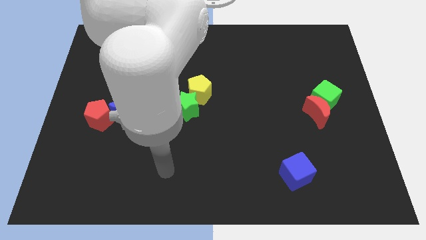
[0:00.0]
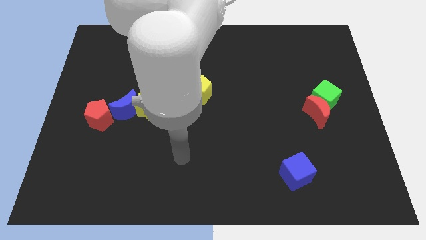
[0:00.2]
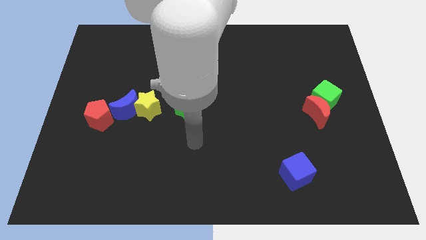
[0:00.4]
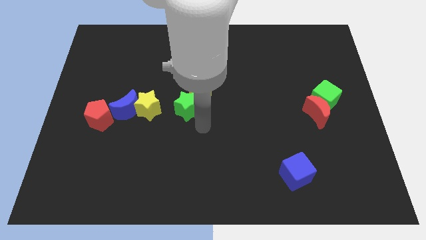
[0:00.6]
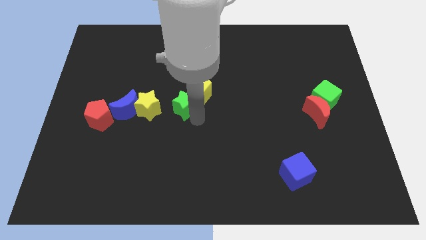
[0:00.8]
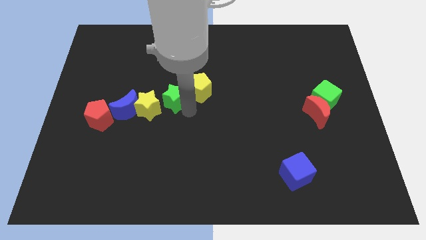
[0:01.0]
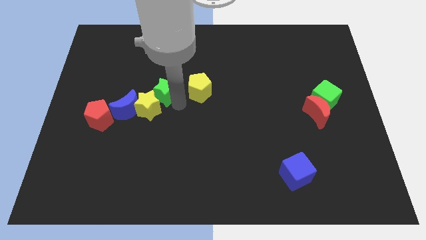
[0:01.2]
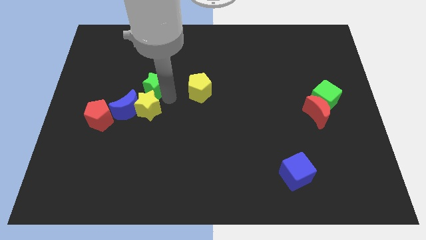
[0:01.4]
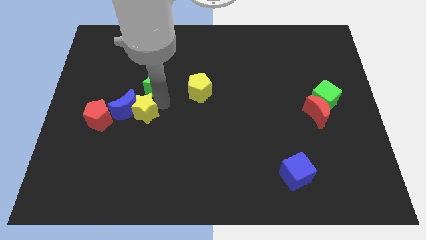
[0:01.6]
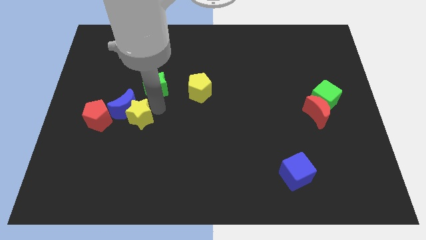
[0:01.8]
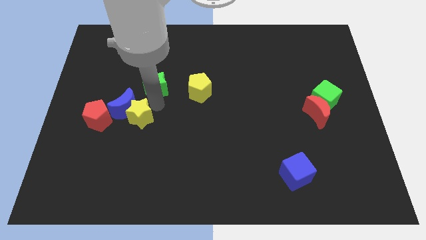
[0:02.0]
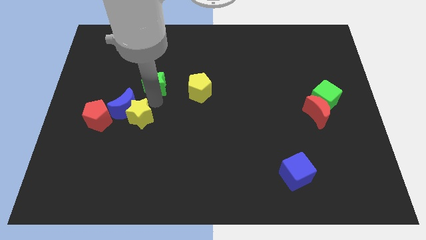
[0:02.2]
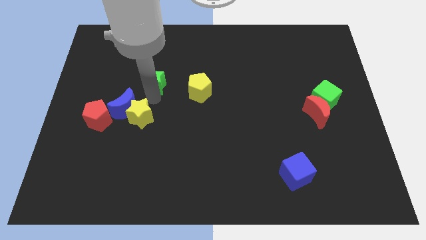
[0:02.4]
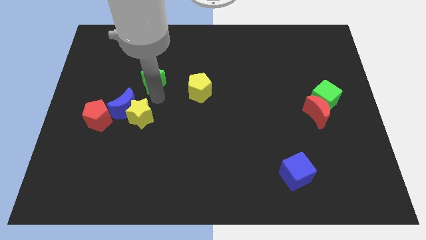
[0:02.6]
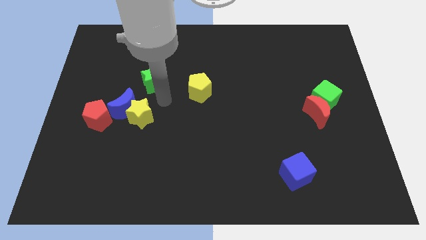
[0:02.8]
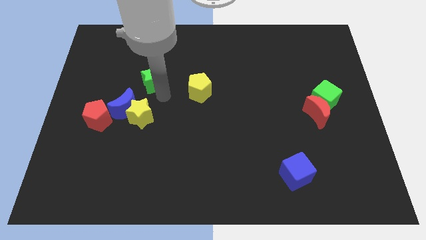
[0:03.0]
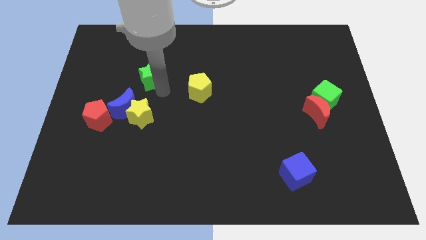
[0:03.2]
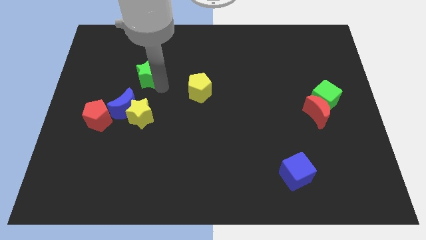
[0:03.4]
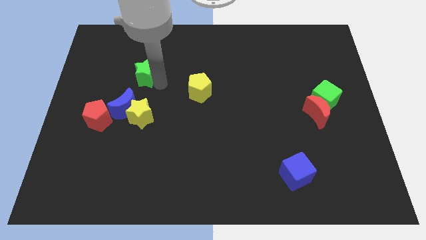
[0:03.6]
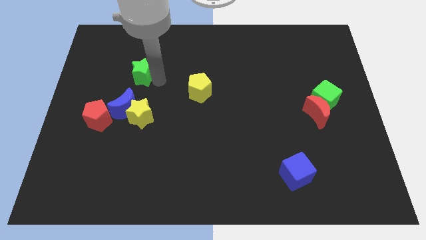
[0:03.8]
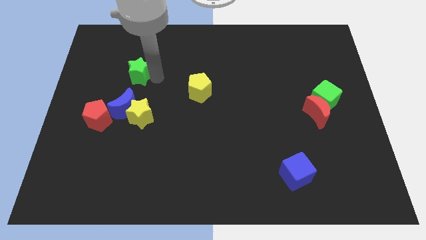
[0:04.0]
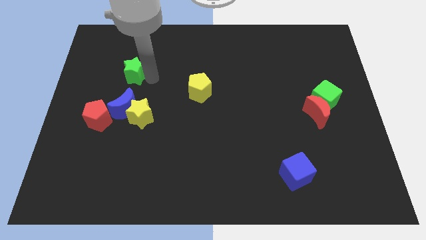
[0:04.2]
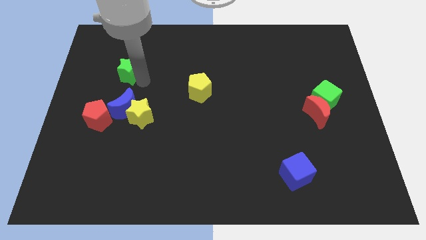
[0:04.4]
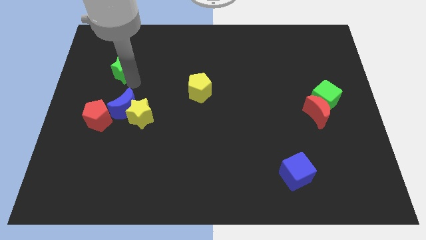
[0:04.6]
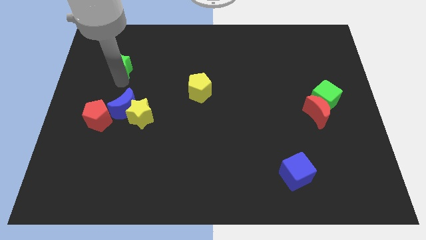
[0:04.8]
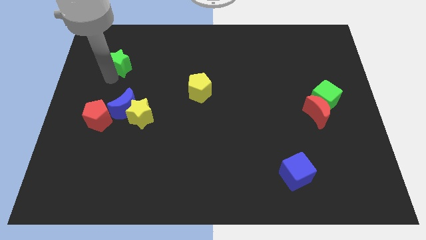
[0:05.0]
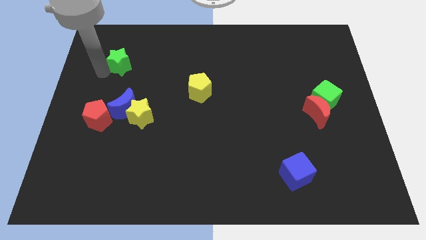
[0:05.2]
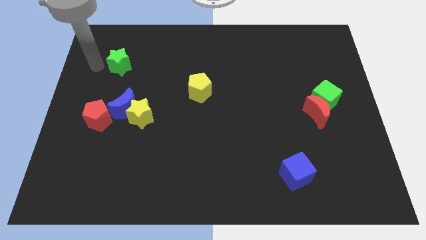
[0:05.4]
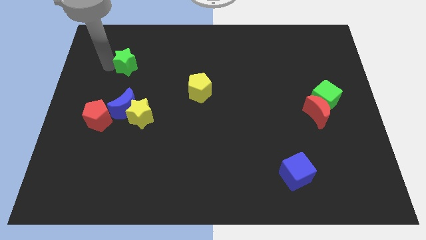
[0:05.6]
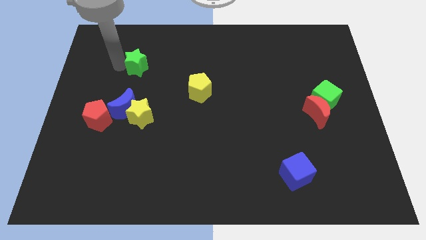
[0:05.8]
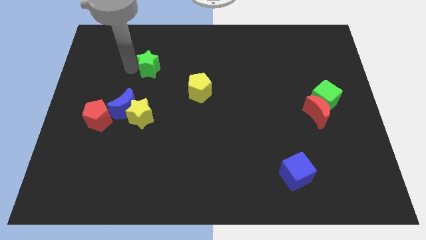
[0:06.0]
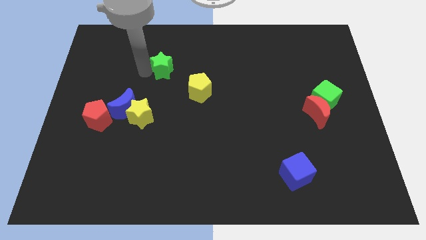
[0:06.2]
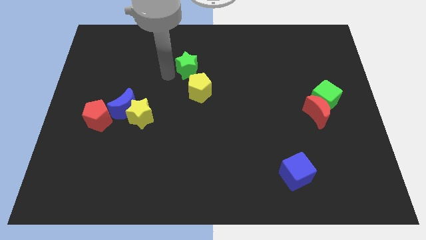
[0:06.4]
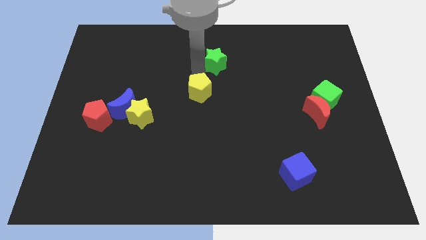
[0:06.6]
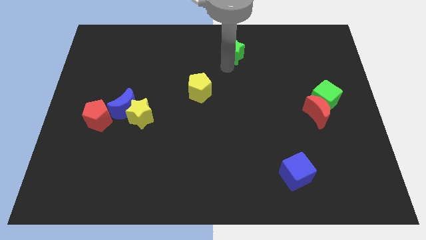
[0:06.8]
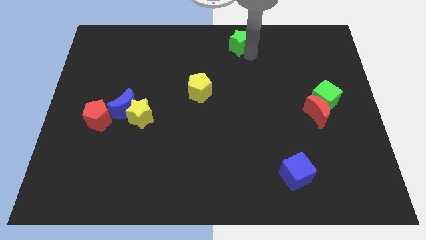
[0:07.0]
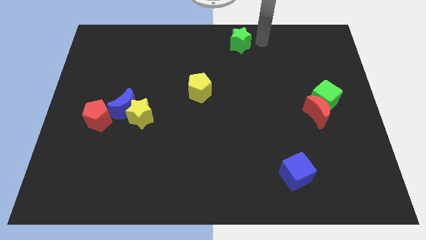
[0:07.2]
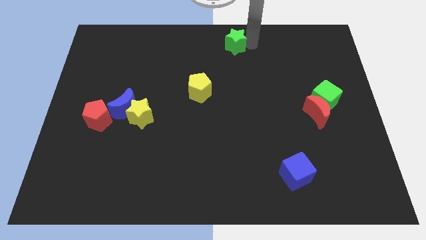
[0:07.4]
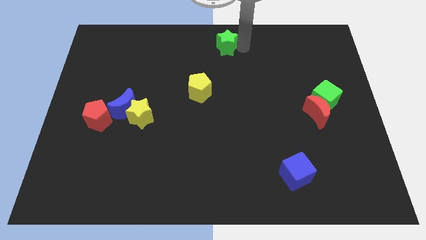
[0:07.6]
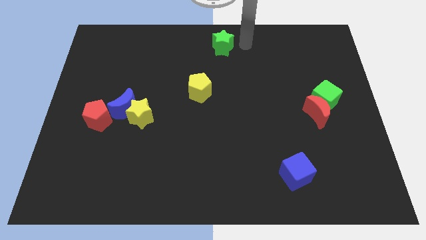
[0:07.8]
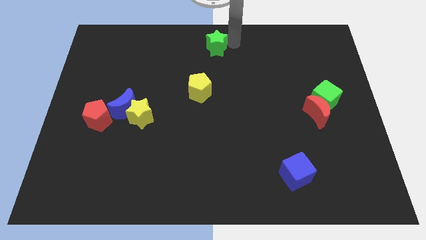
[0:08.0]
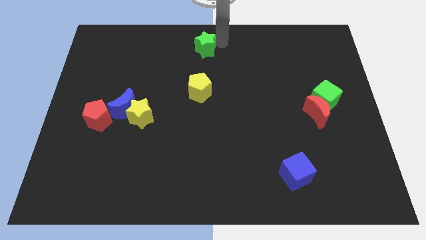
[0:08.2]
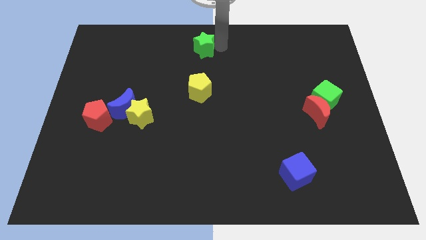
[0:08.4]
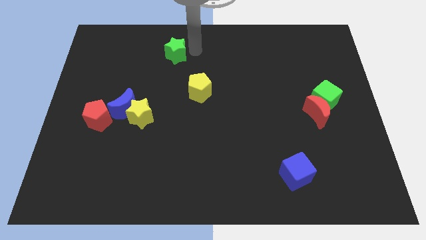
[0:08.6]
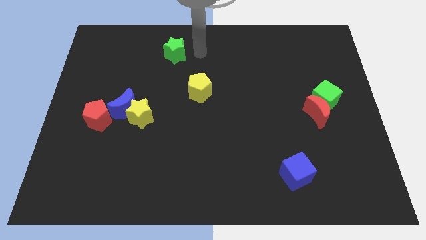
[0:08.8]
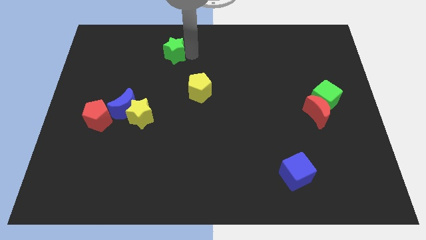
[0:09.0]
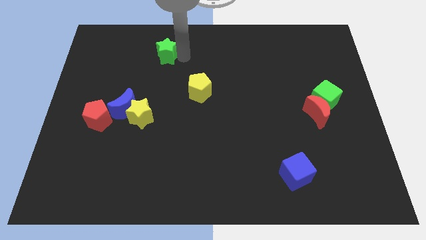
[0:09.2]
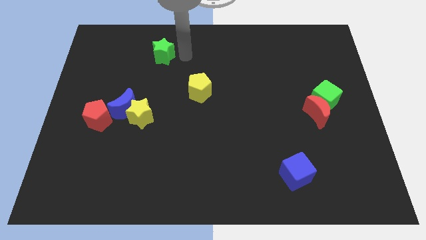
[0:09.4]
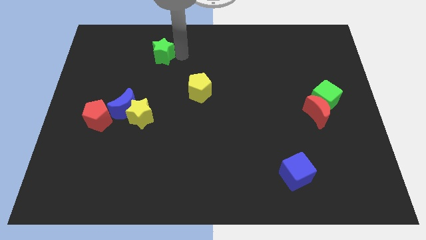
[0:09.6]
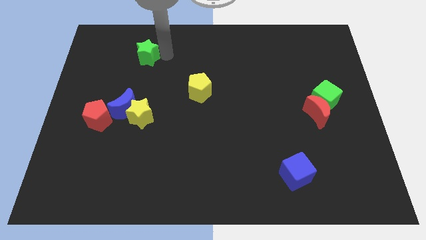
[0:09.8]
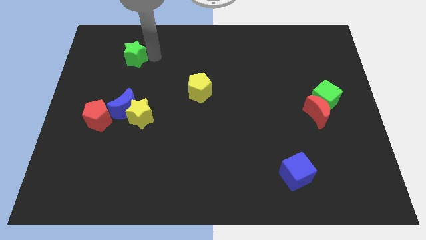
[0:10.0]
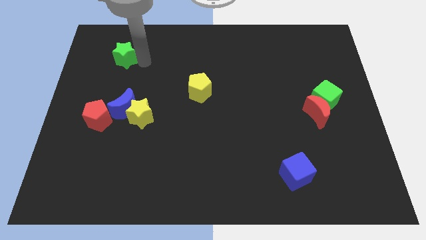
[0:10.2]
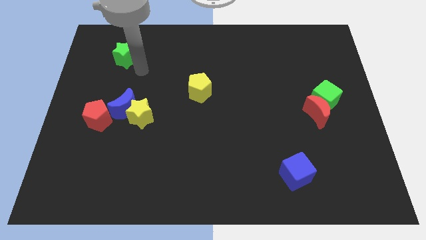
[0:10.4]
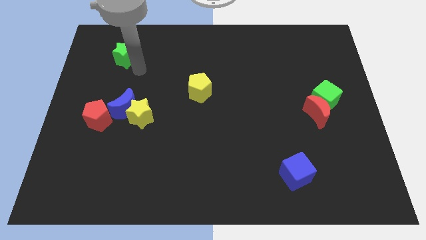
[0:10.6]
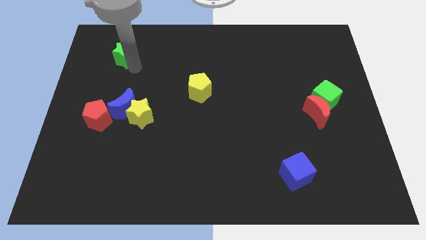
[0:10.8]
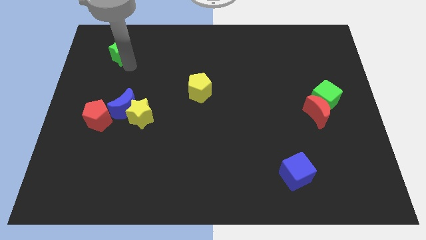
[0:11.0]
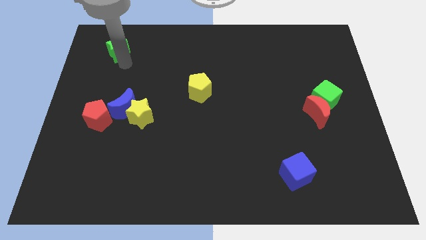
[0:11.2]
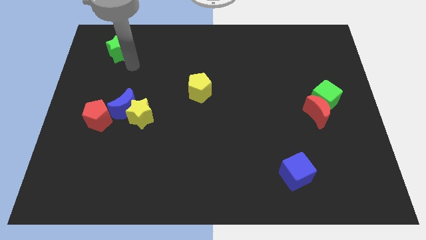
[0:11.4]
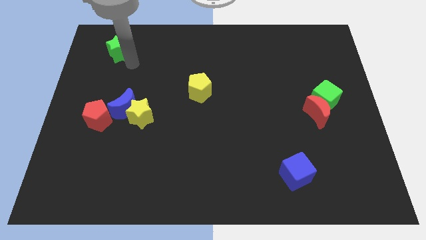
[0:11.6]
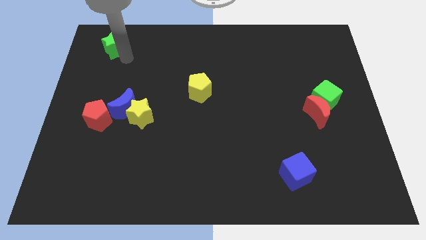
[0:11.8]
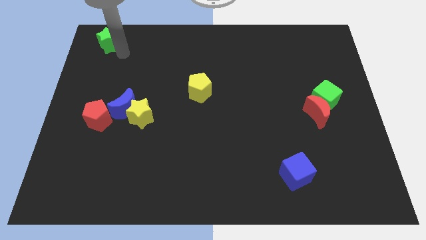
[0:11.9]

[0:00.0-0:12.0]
push the green star to the upper left corner

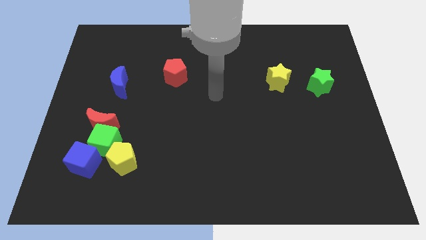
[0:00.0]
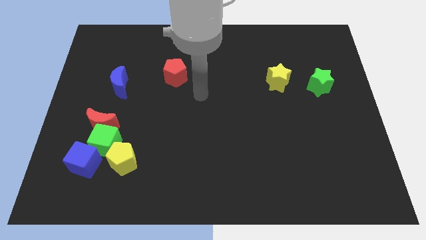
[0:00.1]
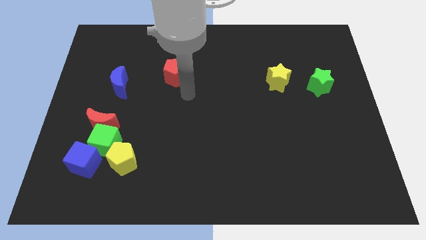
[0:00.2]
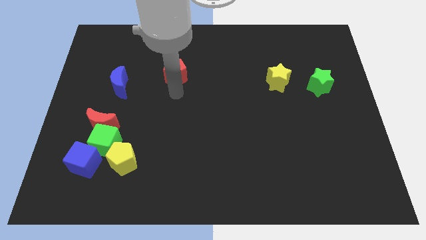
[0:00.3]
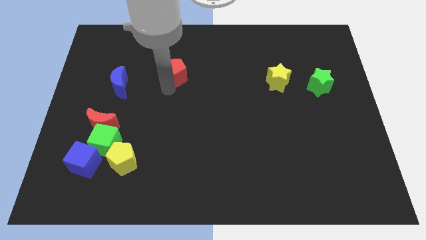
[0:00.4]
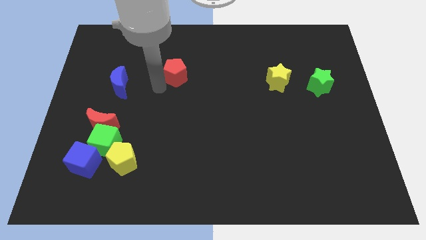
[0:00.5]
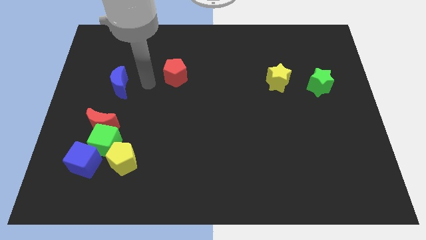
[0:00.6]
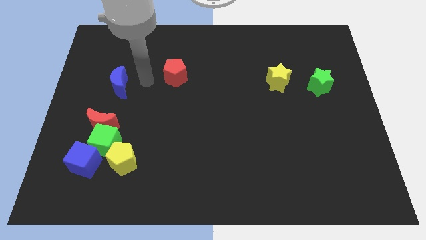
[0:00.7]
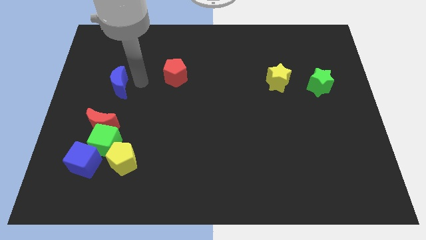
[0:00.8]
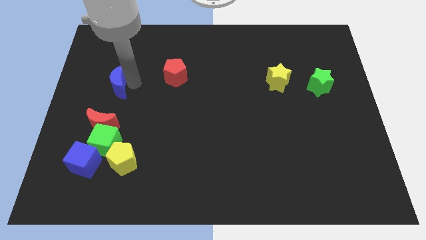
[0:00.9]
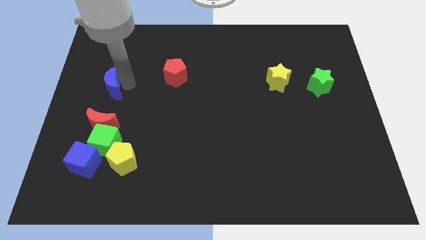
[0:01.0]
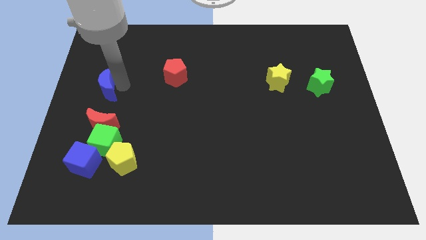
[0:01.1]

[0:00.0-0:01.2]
slide the blue moon to the center left
